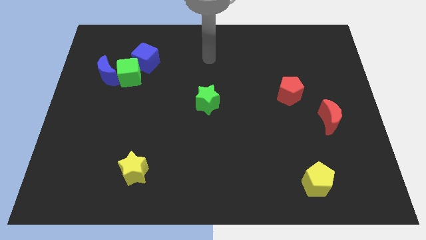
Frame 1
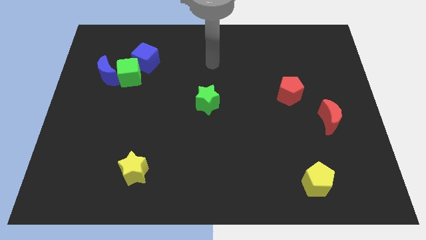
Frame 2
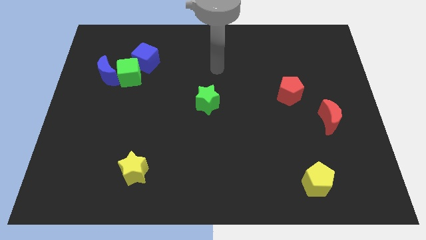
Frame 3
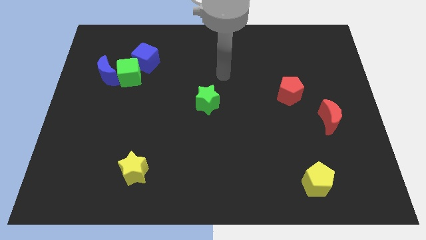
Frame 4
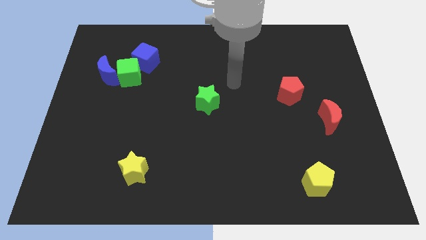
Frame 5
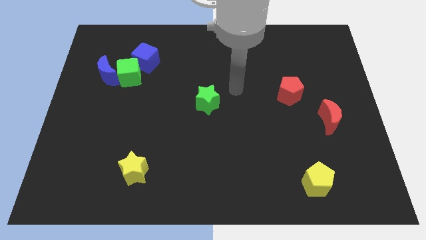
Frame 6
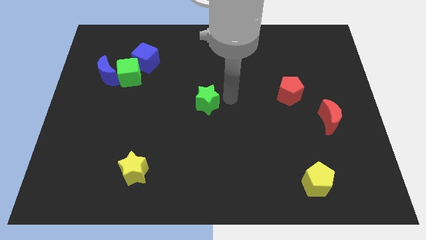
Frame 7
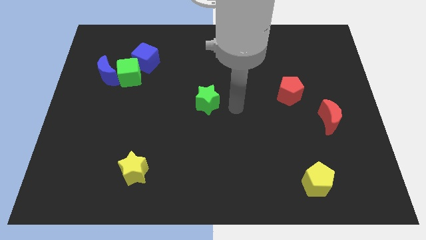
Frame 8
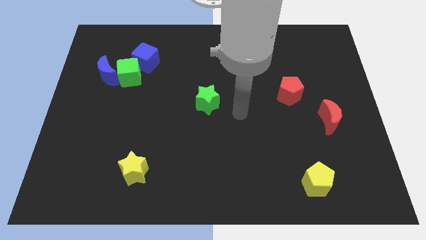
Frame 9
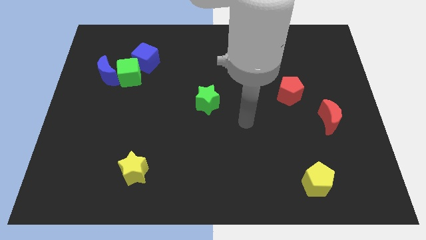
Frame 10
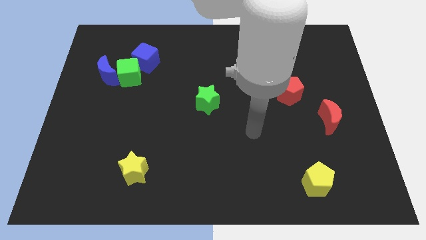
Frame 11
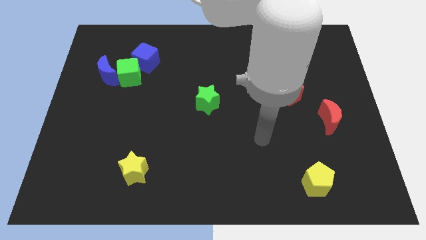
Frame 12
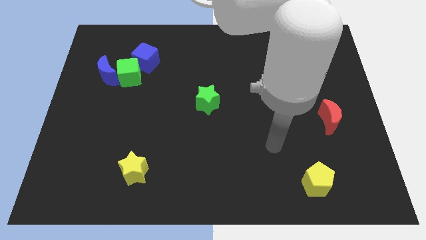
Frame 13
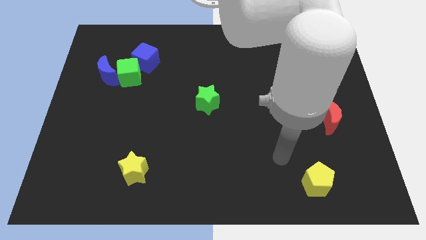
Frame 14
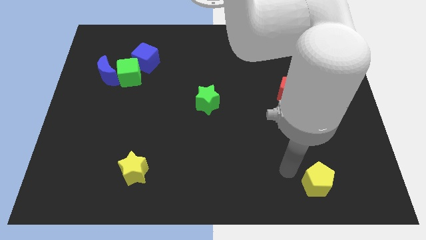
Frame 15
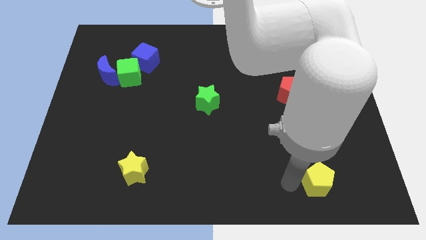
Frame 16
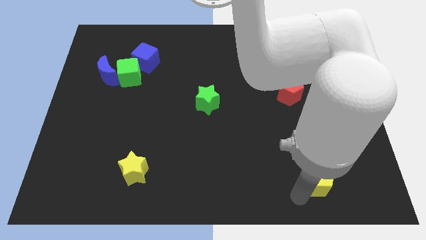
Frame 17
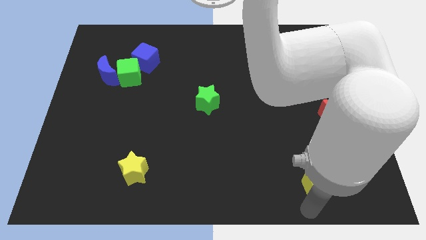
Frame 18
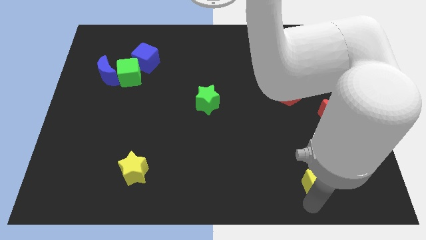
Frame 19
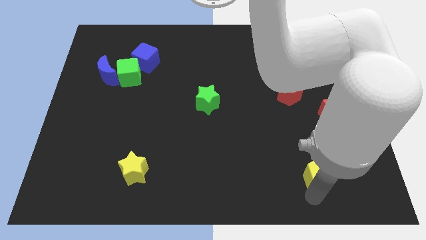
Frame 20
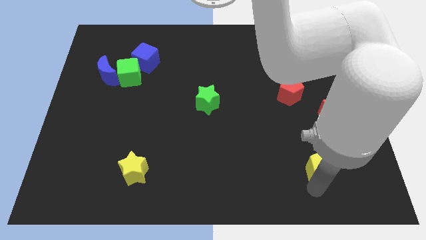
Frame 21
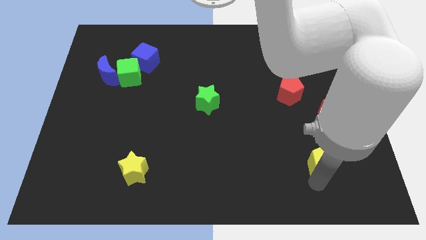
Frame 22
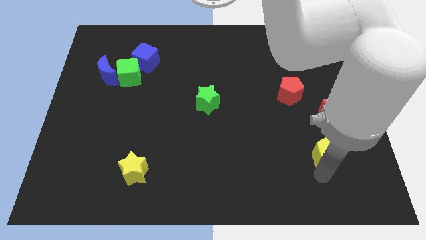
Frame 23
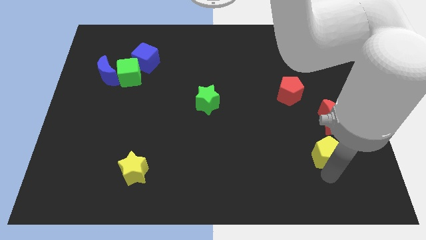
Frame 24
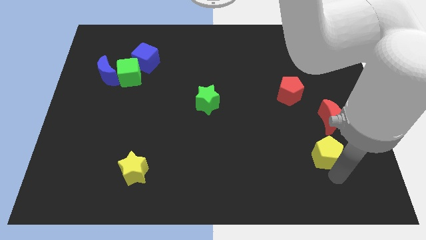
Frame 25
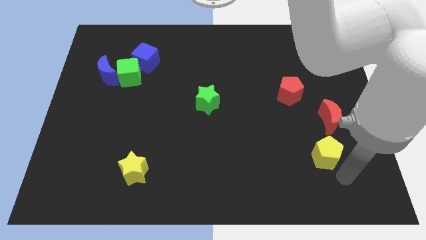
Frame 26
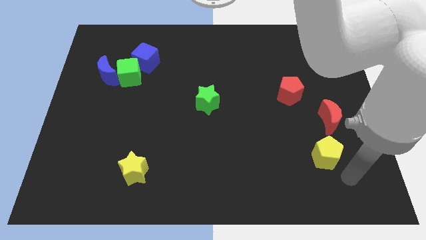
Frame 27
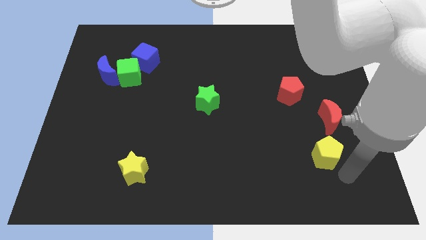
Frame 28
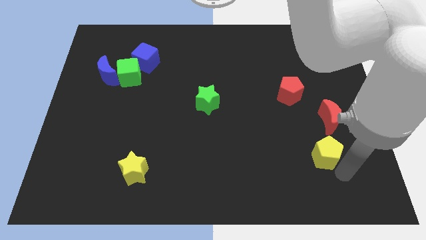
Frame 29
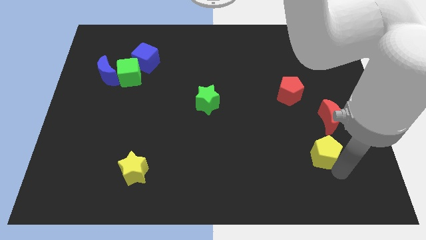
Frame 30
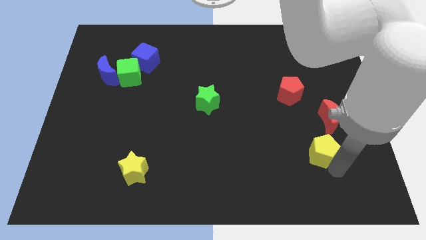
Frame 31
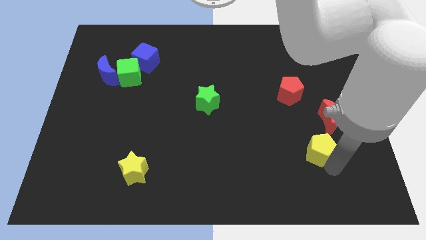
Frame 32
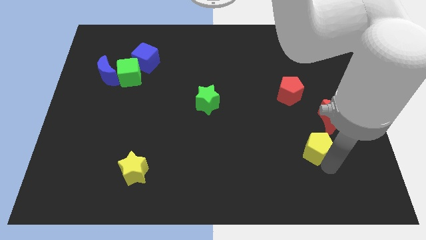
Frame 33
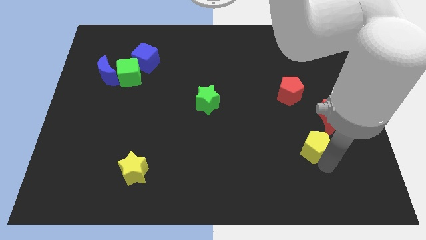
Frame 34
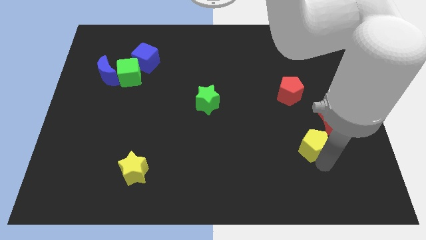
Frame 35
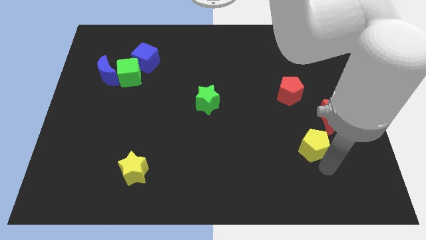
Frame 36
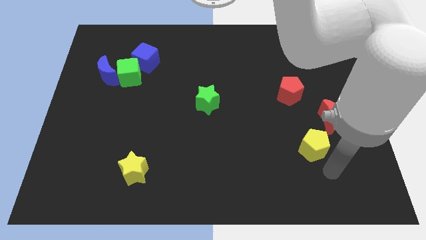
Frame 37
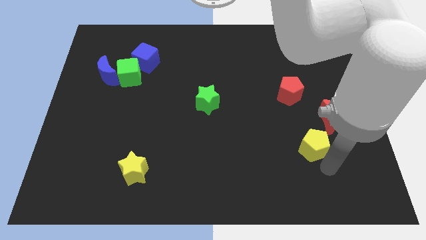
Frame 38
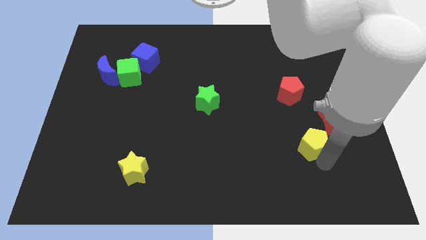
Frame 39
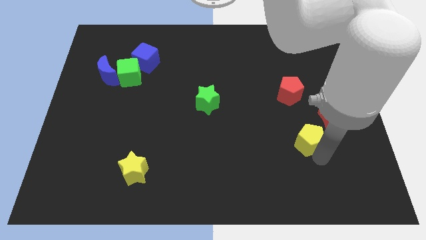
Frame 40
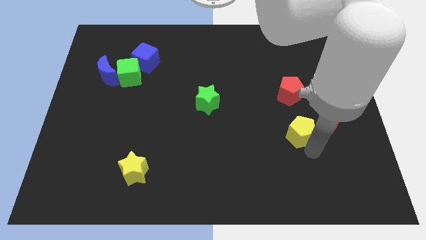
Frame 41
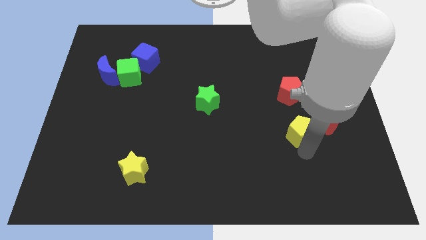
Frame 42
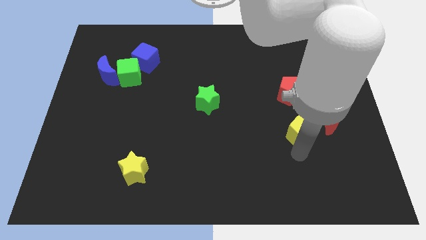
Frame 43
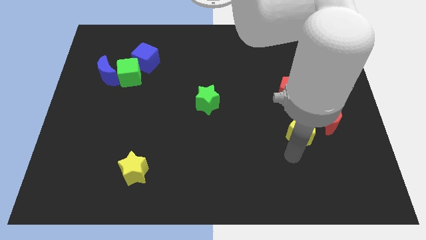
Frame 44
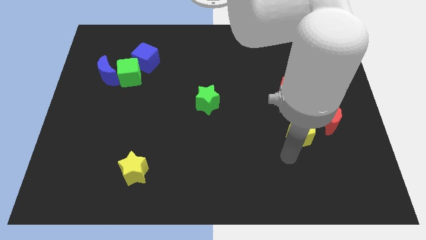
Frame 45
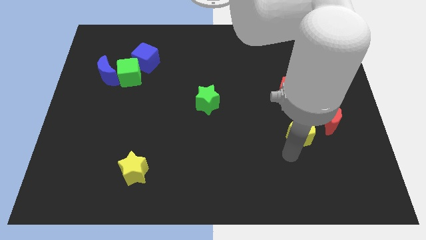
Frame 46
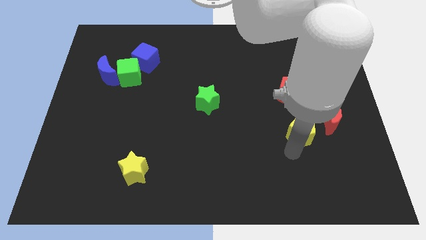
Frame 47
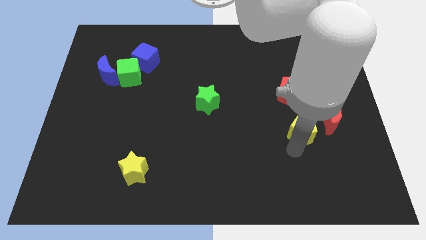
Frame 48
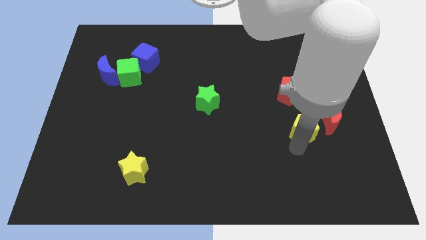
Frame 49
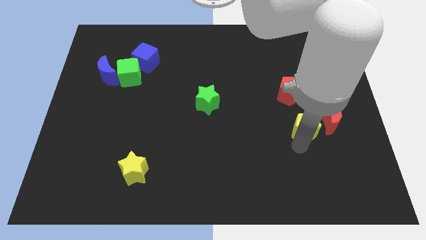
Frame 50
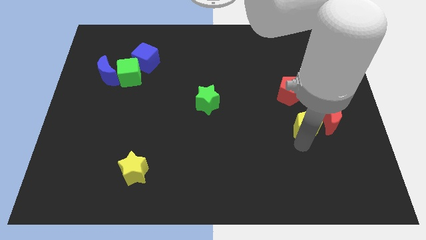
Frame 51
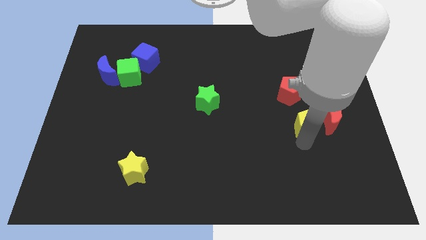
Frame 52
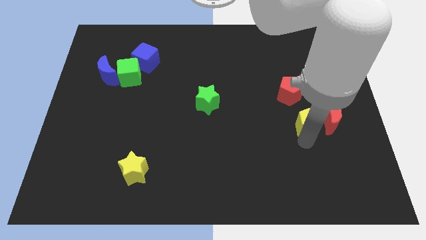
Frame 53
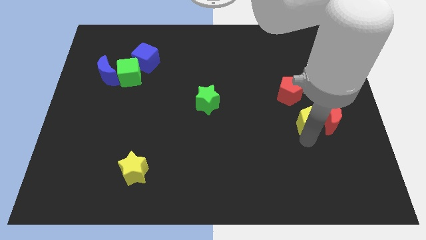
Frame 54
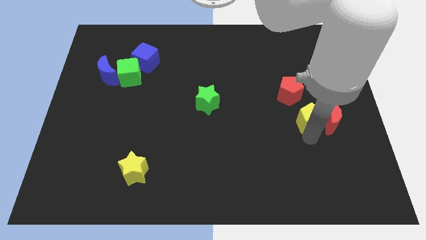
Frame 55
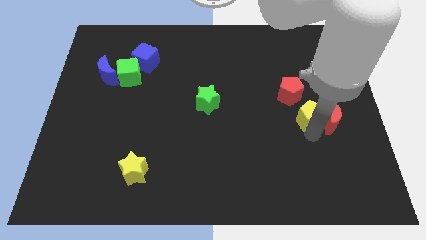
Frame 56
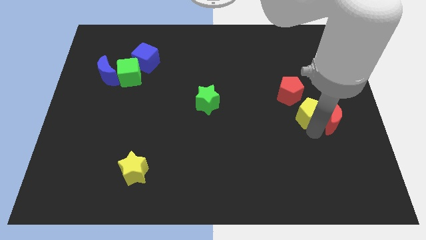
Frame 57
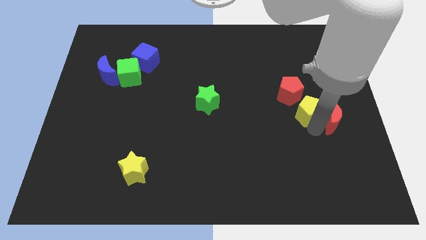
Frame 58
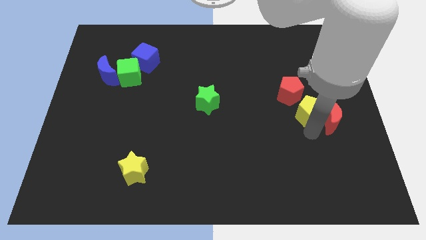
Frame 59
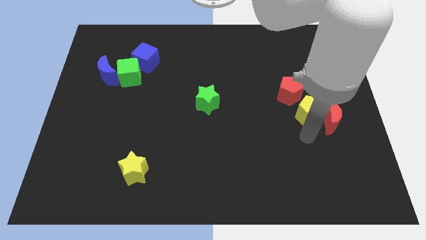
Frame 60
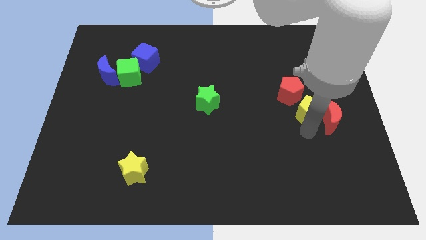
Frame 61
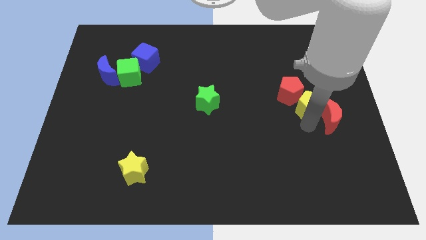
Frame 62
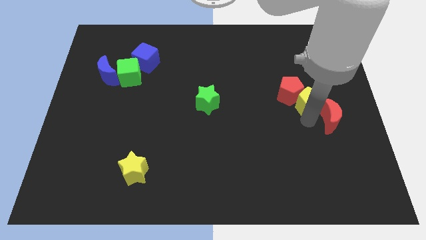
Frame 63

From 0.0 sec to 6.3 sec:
move the yellow pentagon upwards

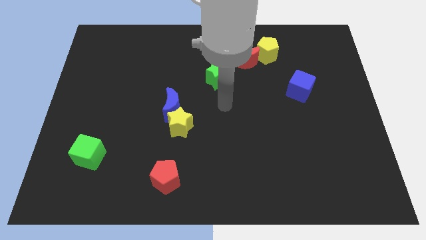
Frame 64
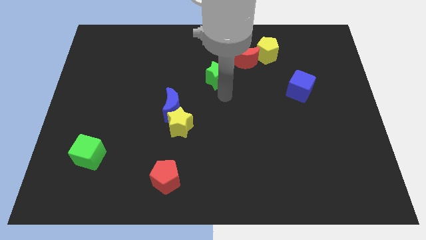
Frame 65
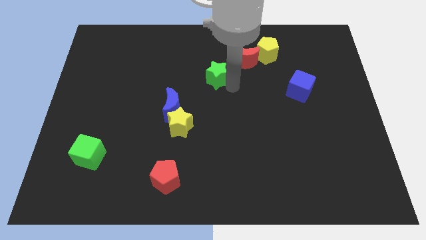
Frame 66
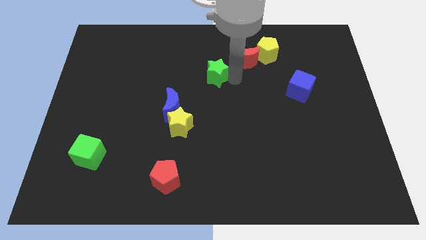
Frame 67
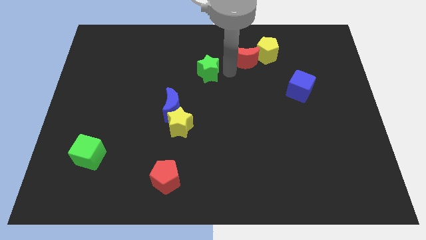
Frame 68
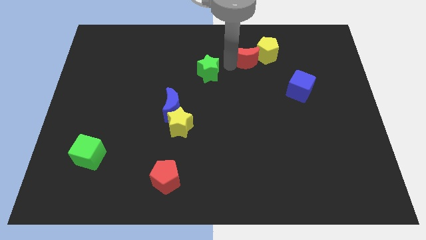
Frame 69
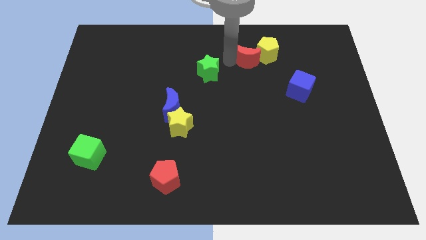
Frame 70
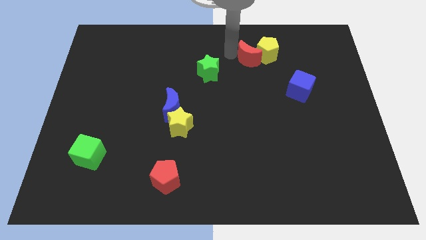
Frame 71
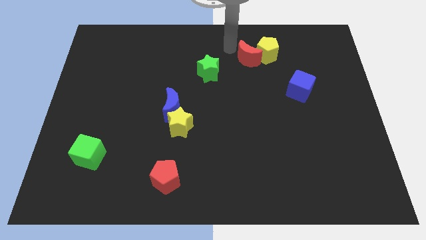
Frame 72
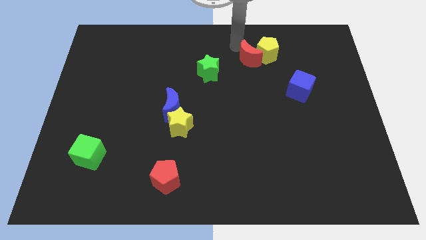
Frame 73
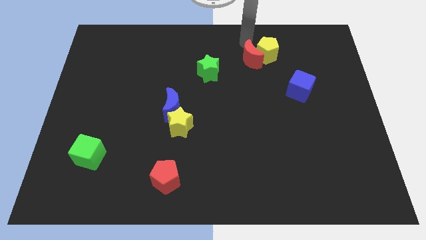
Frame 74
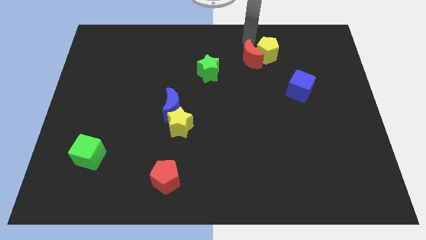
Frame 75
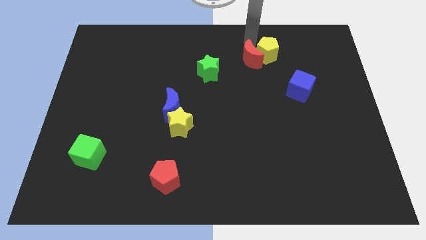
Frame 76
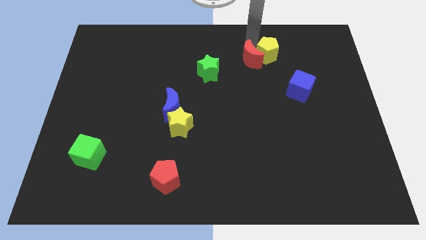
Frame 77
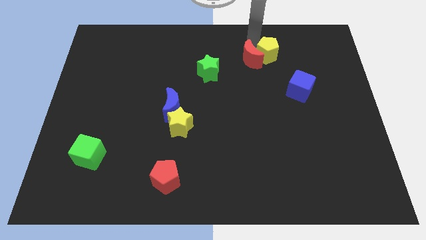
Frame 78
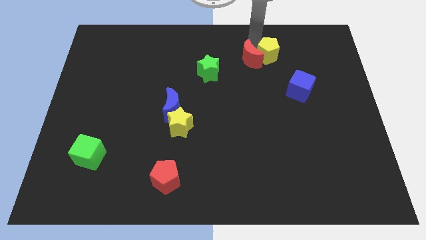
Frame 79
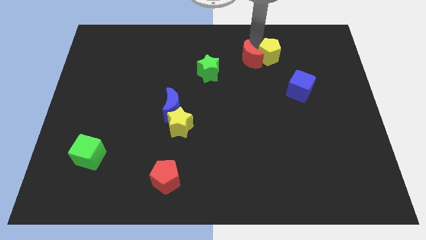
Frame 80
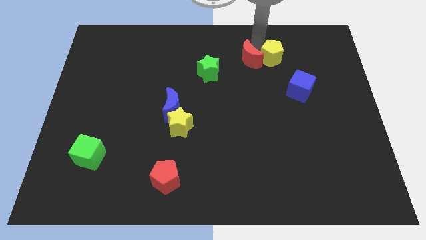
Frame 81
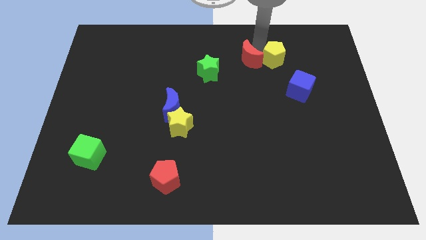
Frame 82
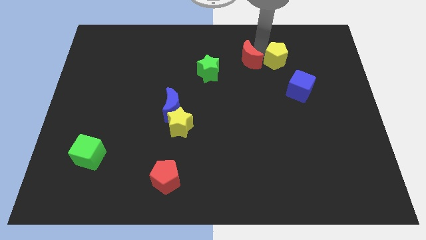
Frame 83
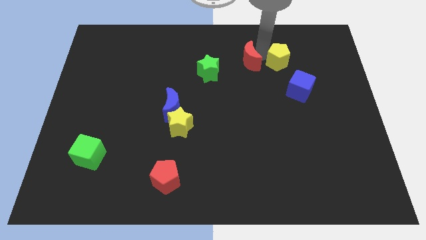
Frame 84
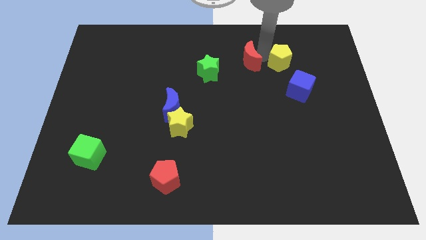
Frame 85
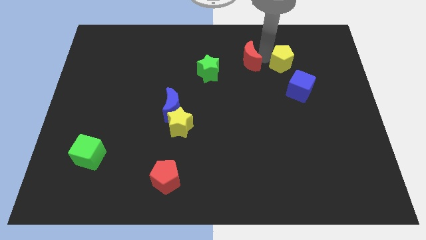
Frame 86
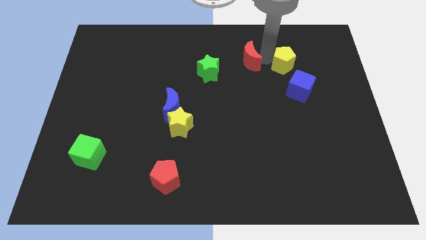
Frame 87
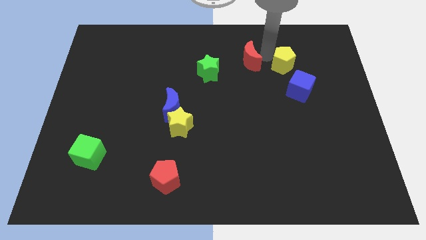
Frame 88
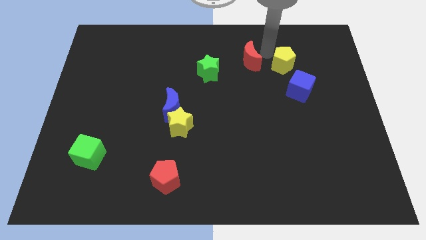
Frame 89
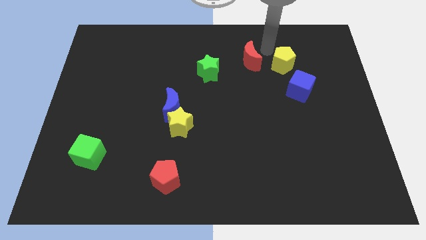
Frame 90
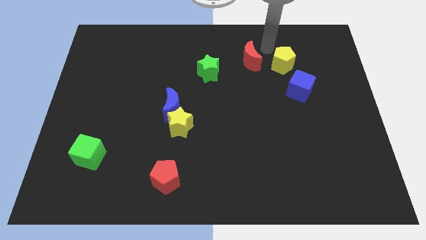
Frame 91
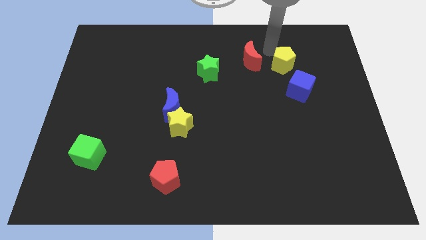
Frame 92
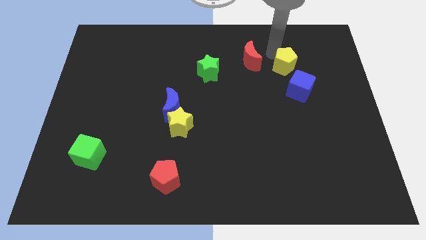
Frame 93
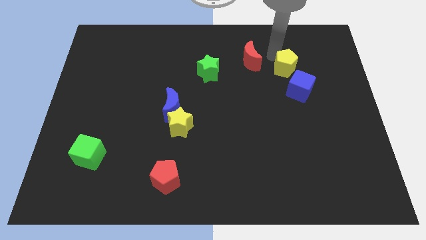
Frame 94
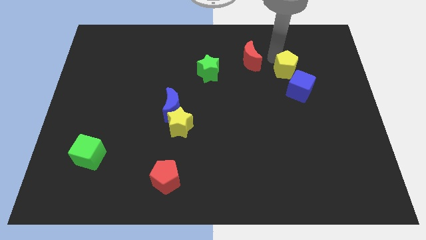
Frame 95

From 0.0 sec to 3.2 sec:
push the yellow pentagon slightly down and to the right diagonally
